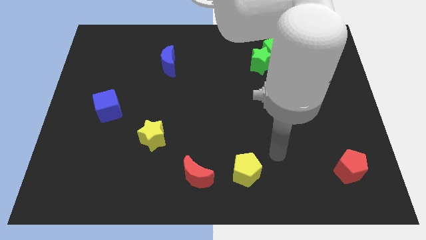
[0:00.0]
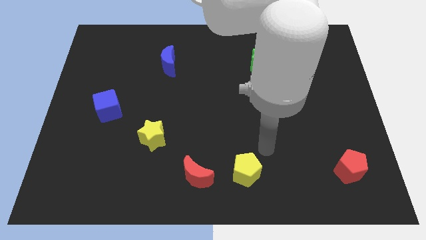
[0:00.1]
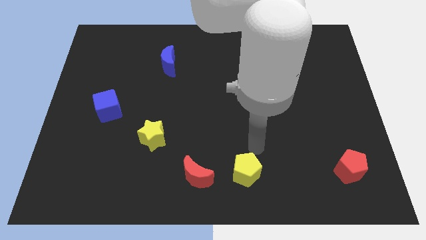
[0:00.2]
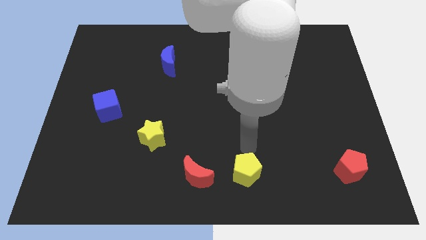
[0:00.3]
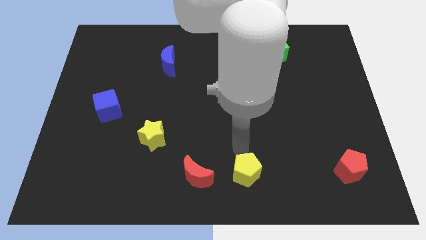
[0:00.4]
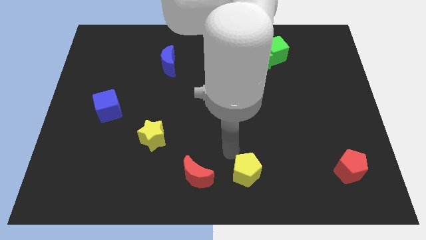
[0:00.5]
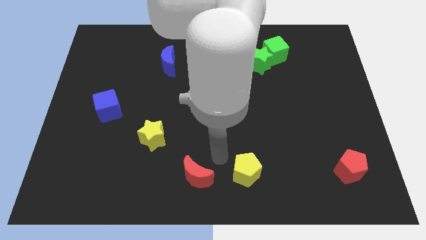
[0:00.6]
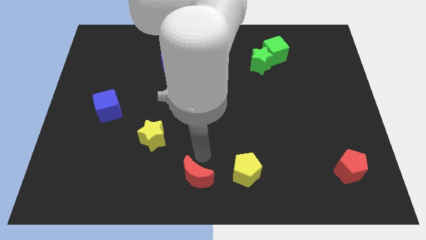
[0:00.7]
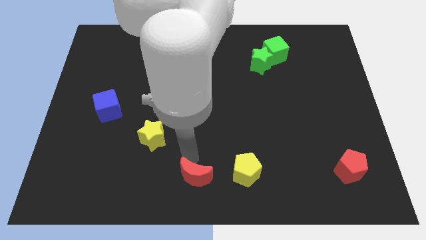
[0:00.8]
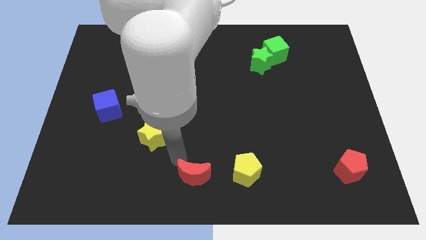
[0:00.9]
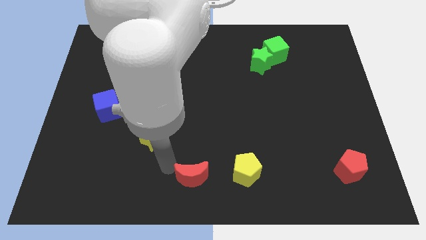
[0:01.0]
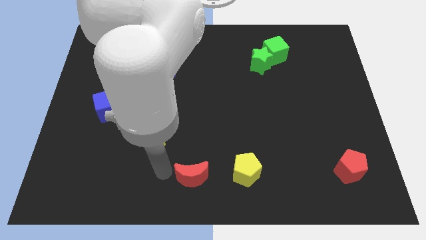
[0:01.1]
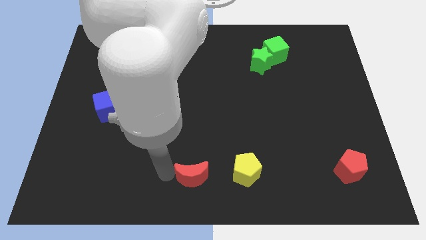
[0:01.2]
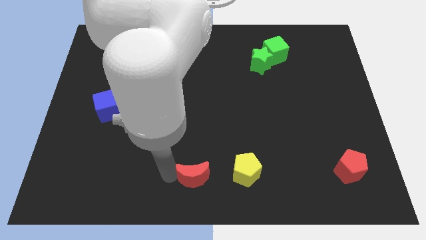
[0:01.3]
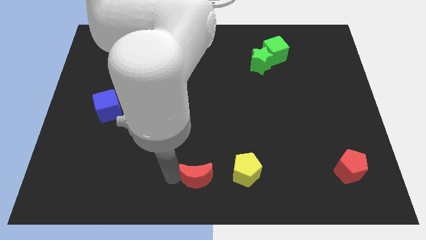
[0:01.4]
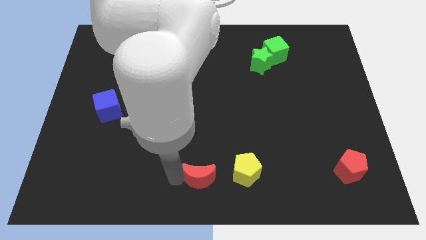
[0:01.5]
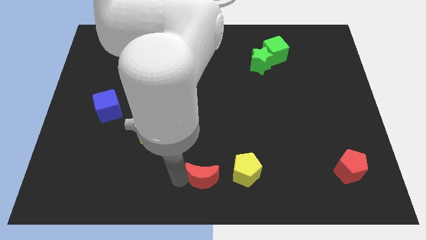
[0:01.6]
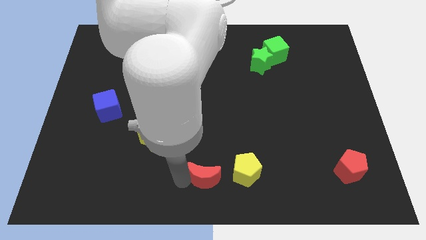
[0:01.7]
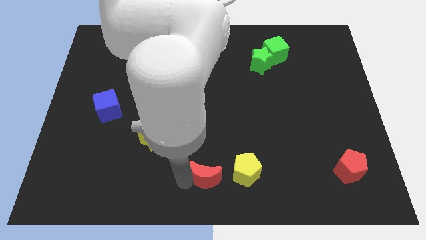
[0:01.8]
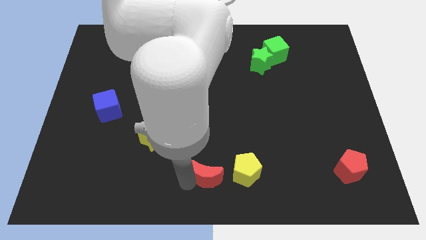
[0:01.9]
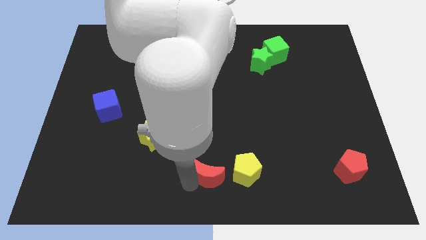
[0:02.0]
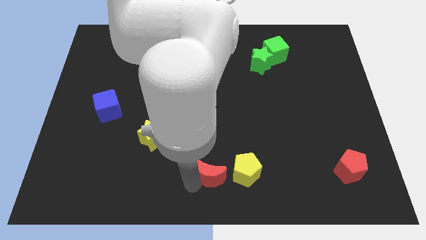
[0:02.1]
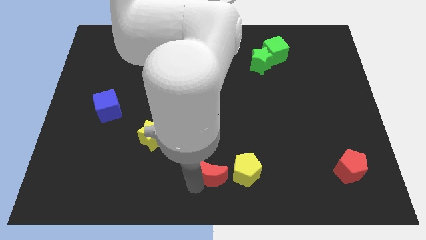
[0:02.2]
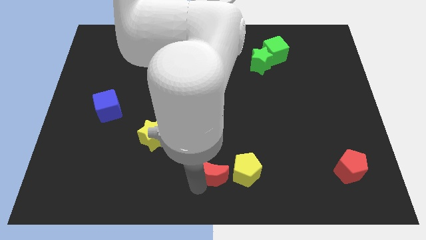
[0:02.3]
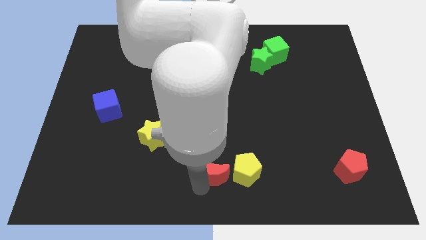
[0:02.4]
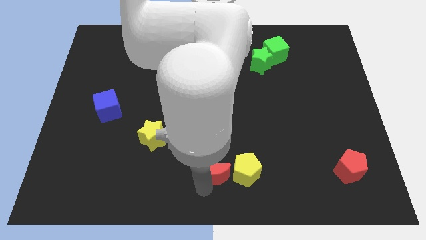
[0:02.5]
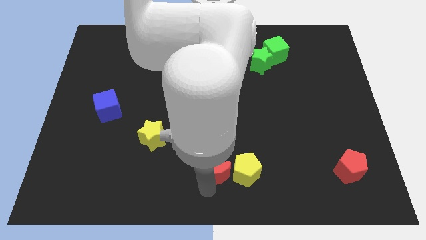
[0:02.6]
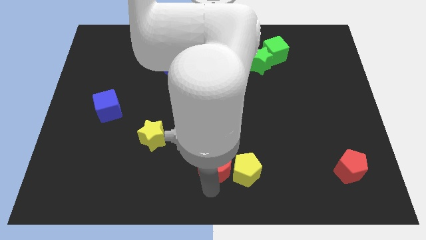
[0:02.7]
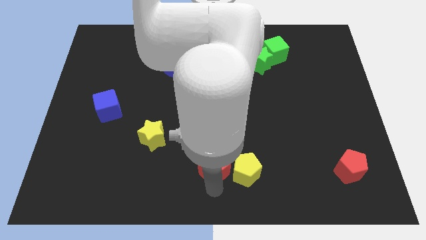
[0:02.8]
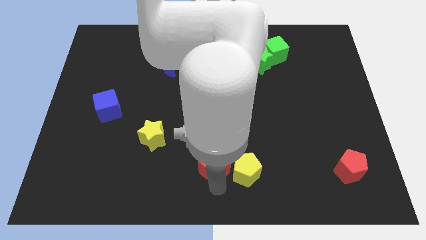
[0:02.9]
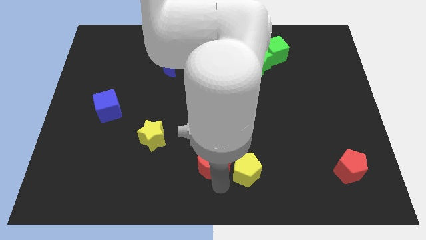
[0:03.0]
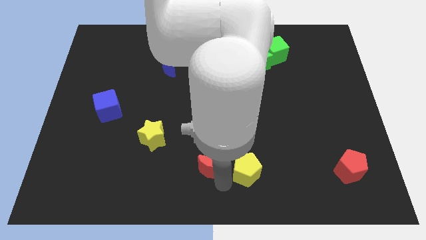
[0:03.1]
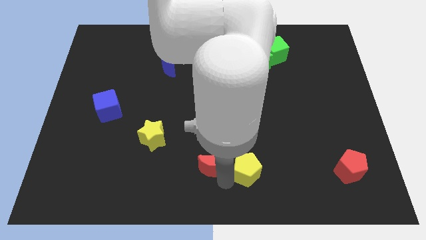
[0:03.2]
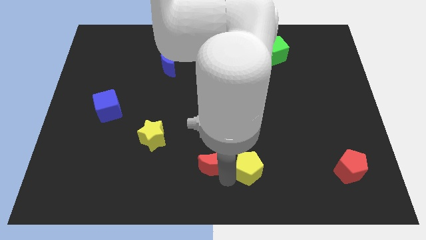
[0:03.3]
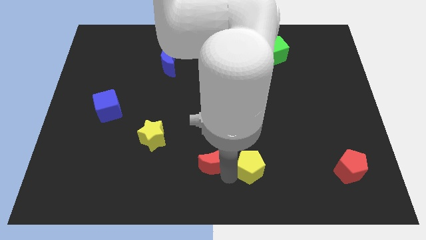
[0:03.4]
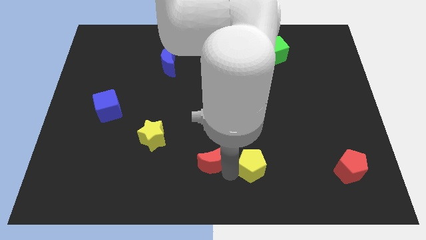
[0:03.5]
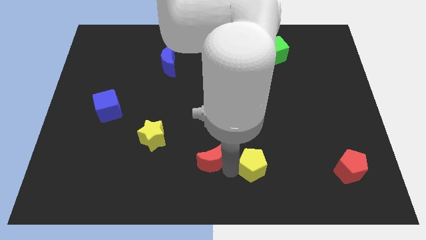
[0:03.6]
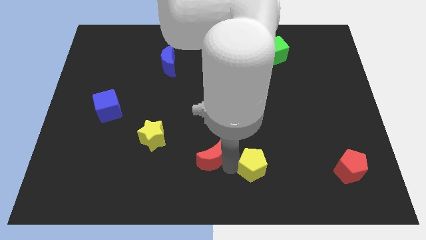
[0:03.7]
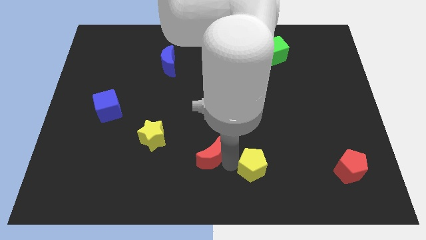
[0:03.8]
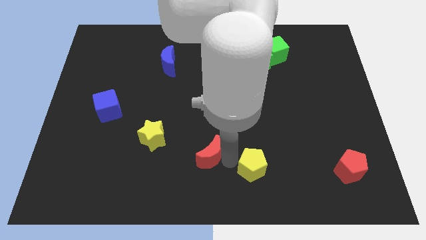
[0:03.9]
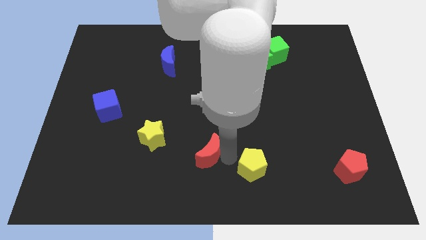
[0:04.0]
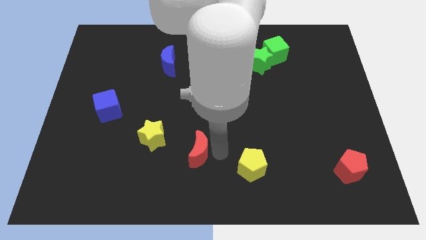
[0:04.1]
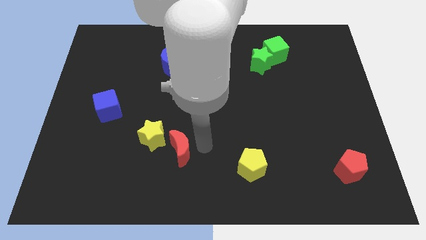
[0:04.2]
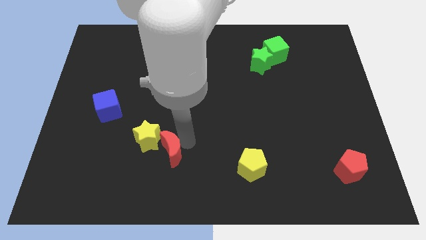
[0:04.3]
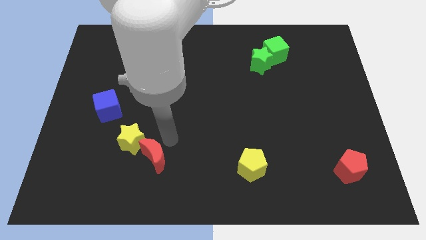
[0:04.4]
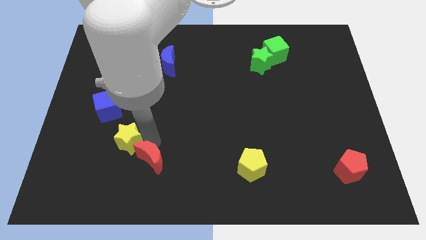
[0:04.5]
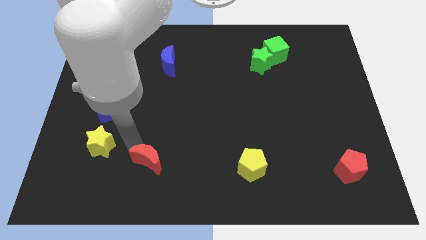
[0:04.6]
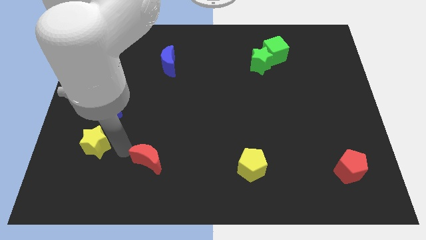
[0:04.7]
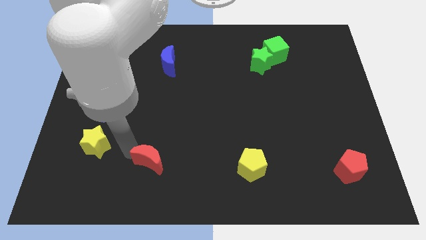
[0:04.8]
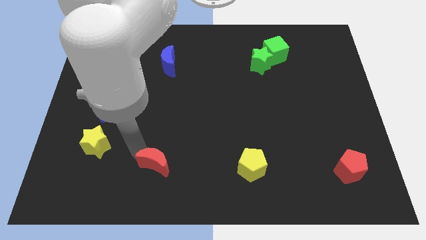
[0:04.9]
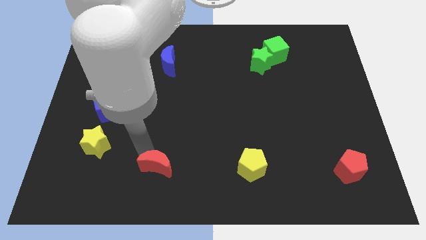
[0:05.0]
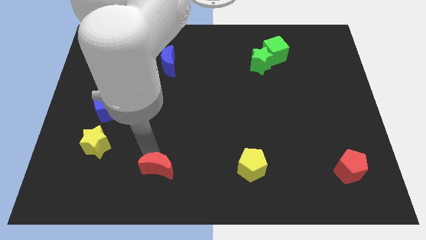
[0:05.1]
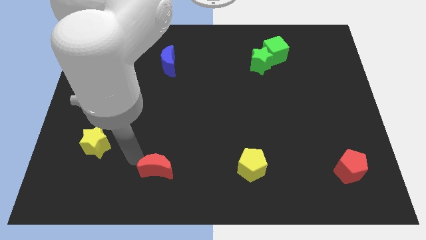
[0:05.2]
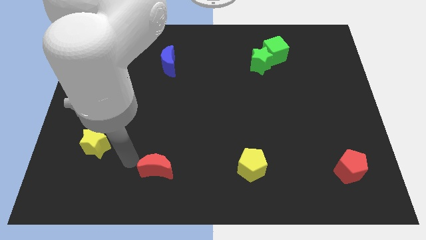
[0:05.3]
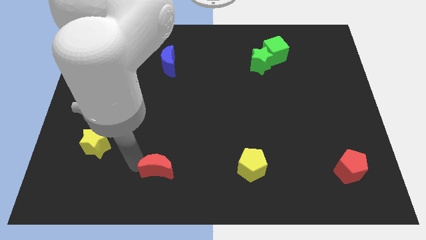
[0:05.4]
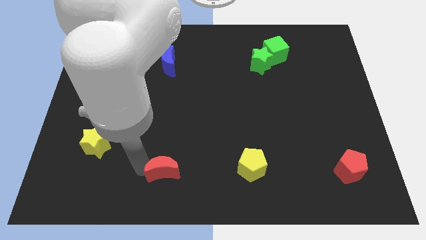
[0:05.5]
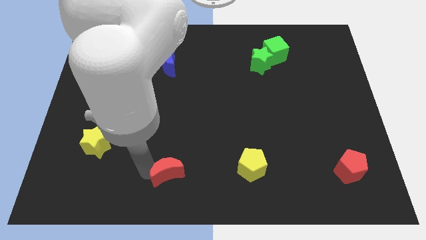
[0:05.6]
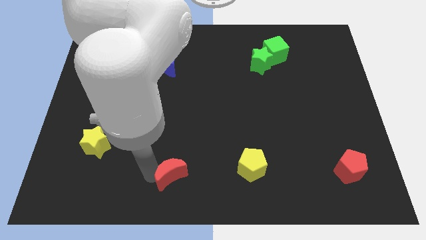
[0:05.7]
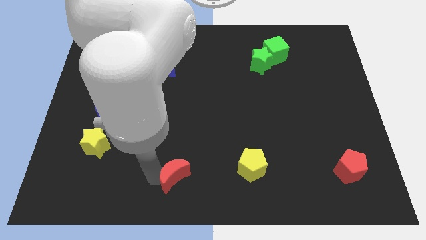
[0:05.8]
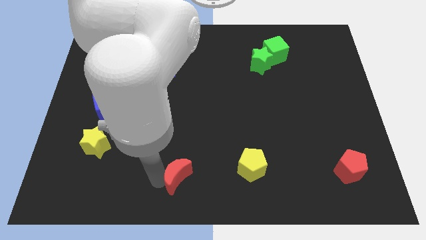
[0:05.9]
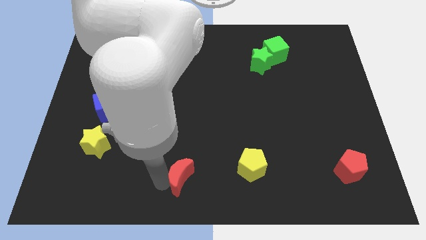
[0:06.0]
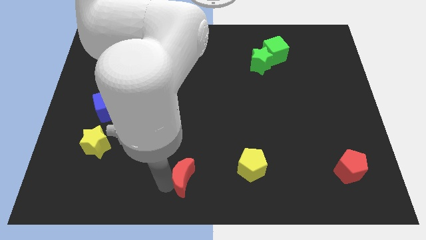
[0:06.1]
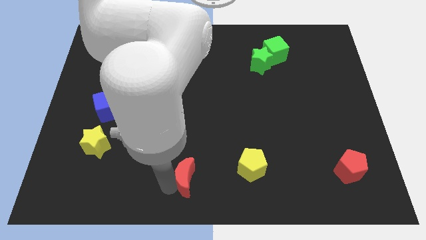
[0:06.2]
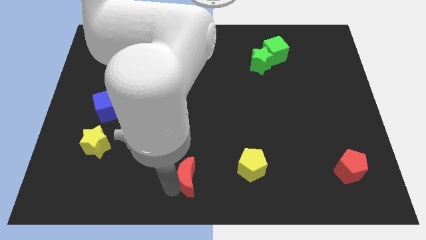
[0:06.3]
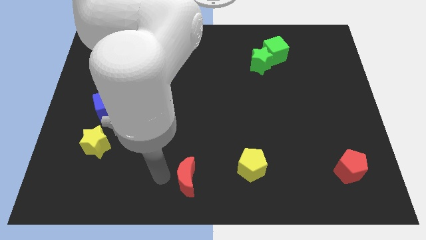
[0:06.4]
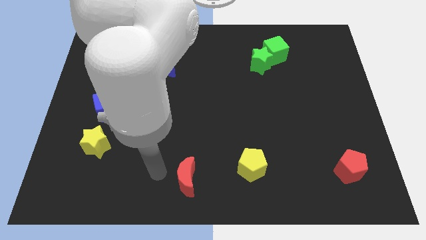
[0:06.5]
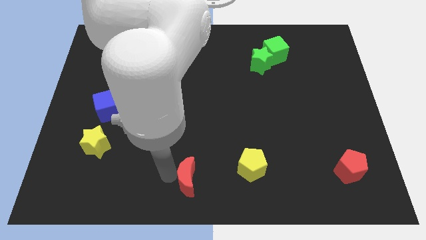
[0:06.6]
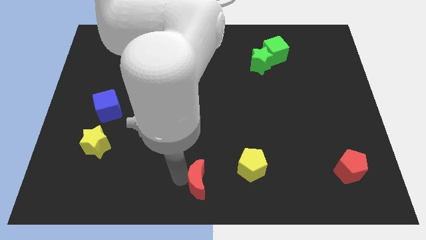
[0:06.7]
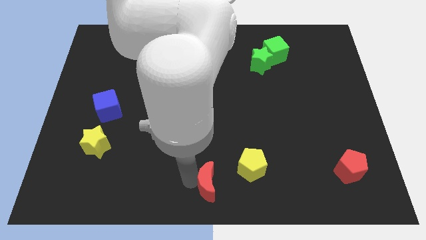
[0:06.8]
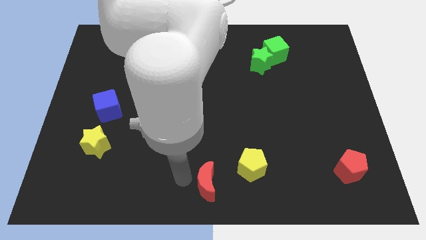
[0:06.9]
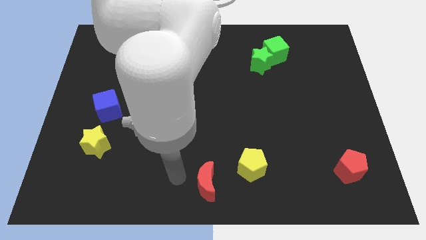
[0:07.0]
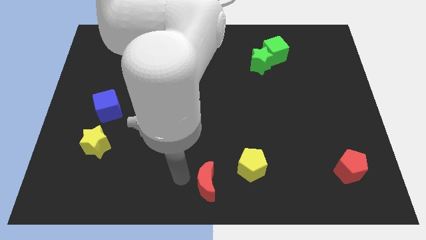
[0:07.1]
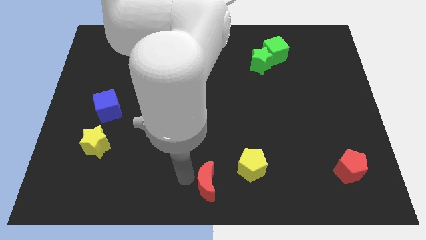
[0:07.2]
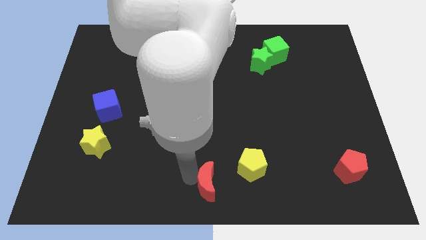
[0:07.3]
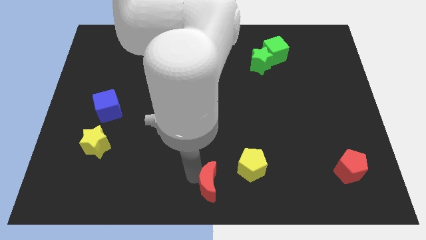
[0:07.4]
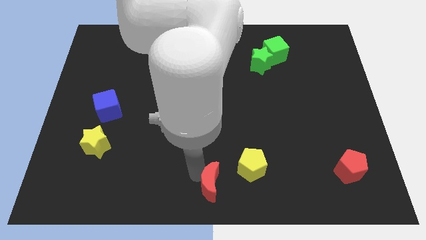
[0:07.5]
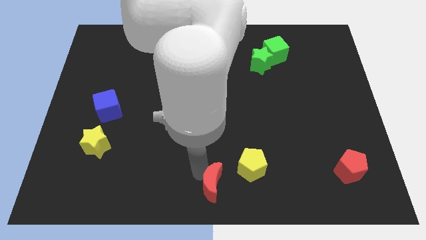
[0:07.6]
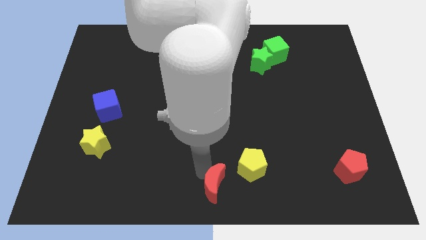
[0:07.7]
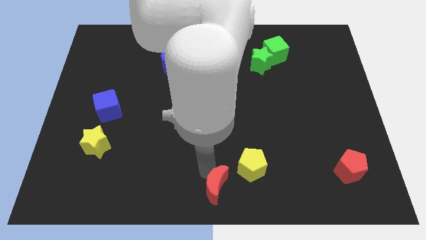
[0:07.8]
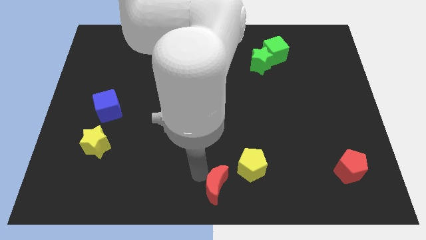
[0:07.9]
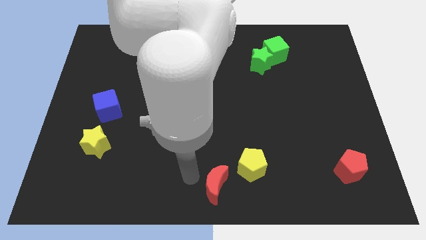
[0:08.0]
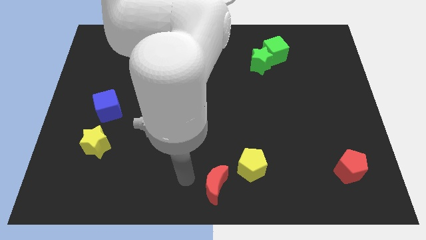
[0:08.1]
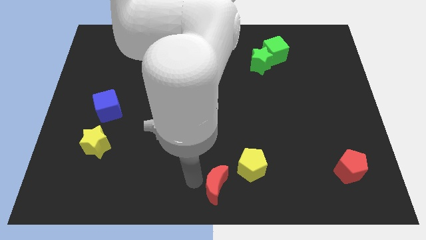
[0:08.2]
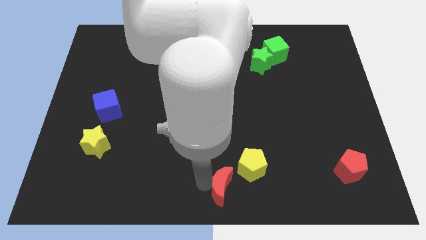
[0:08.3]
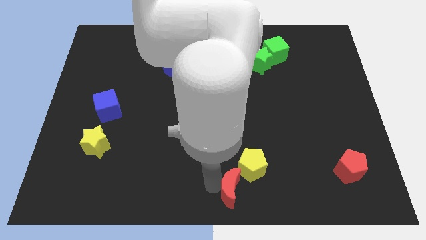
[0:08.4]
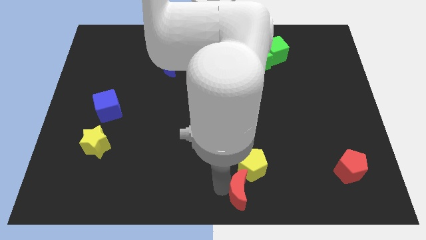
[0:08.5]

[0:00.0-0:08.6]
move the red moon right a little
